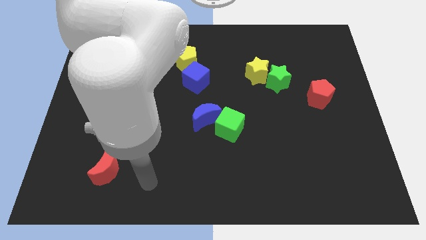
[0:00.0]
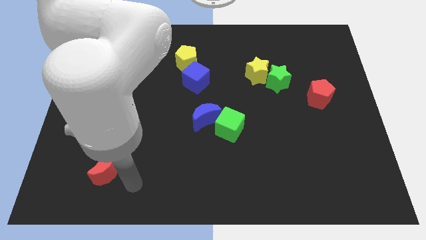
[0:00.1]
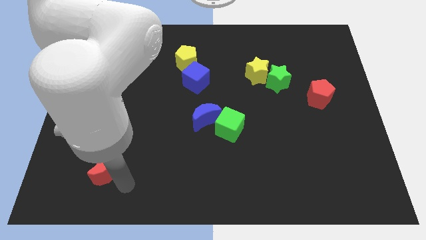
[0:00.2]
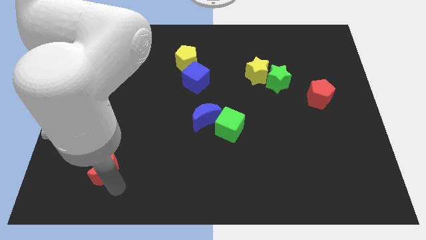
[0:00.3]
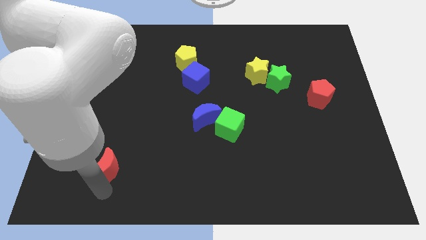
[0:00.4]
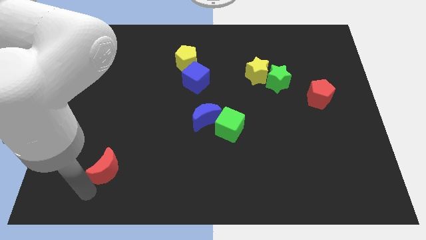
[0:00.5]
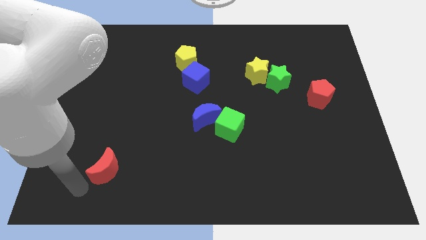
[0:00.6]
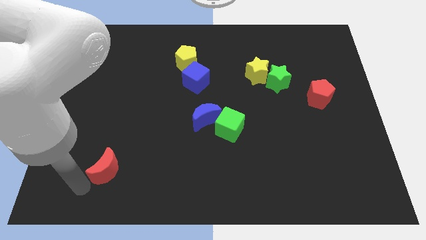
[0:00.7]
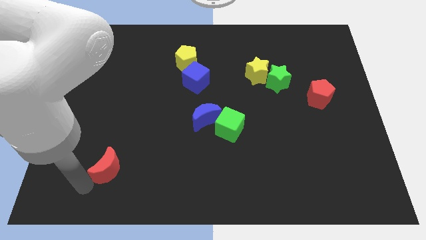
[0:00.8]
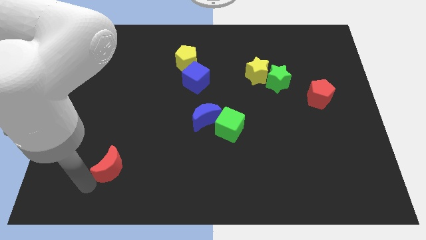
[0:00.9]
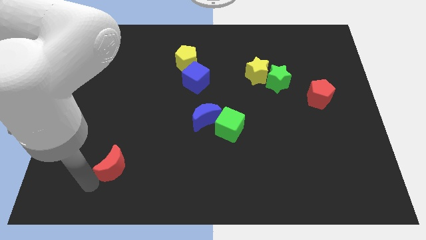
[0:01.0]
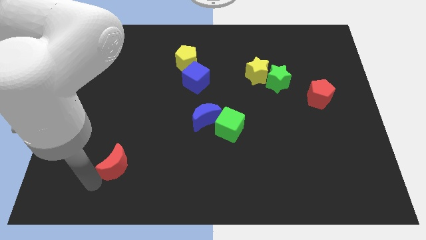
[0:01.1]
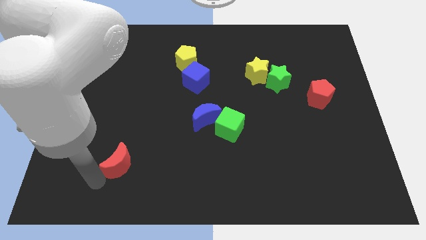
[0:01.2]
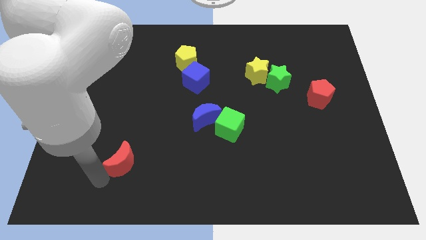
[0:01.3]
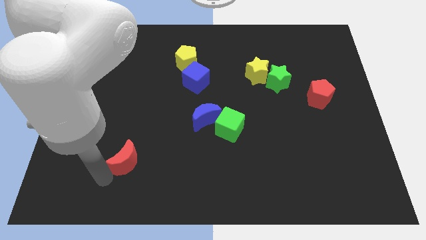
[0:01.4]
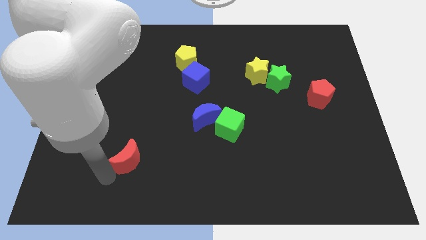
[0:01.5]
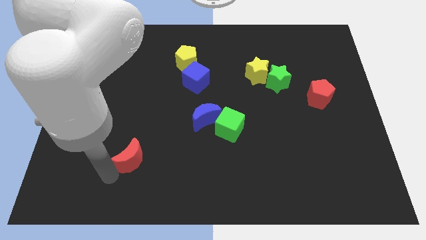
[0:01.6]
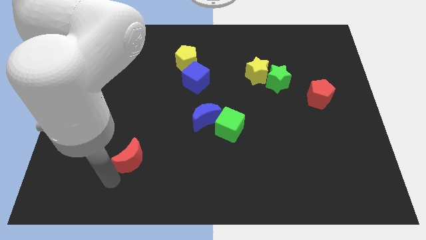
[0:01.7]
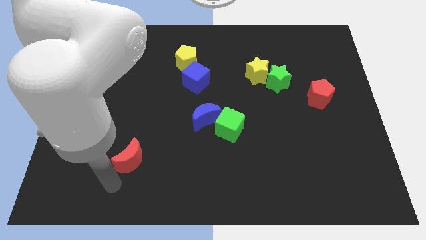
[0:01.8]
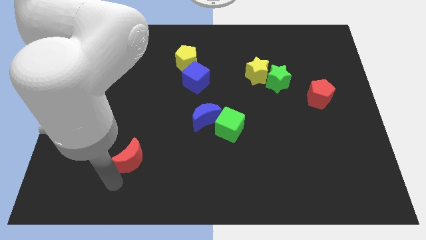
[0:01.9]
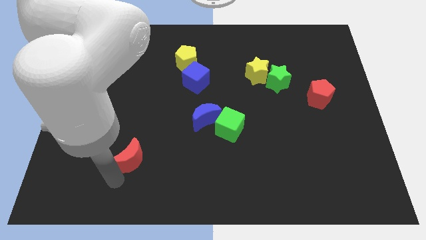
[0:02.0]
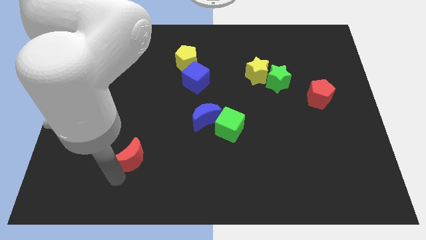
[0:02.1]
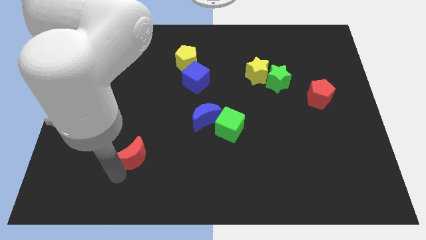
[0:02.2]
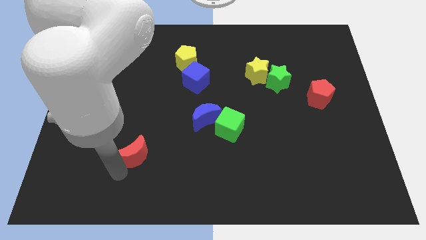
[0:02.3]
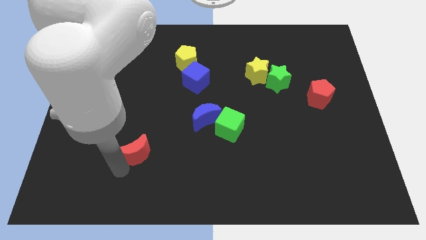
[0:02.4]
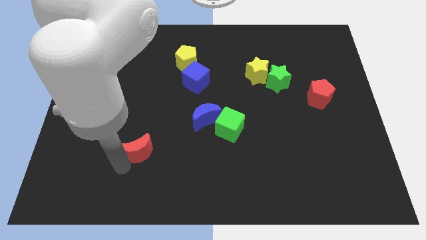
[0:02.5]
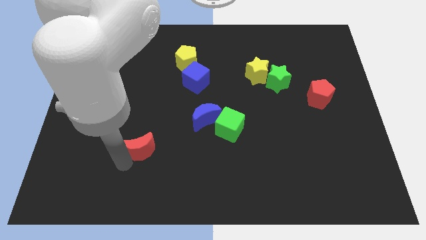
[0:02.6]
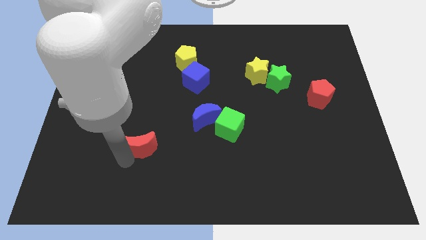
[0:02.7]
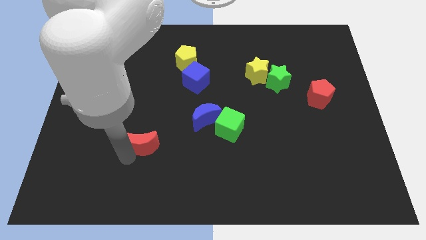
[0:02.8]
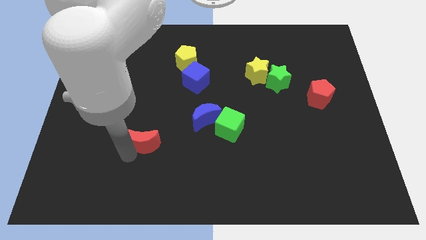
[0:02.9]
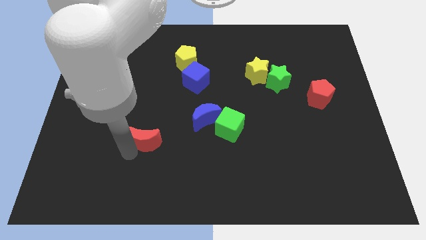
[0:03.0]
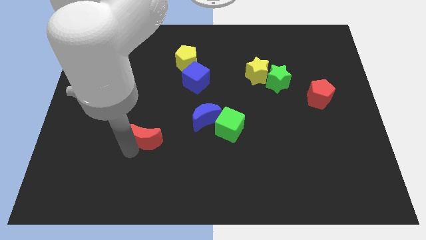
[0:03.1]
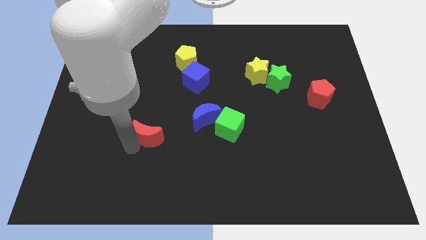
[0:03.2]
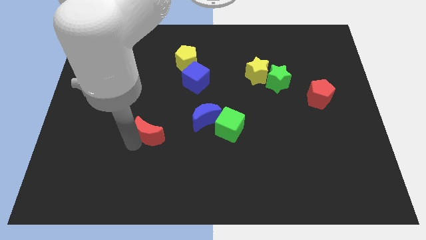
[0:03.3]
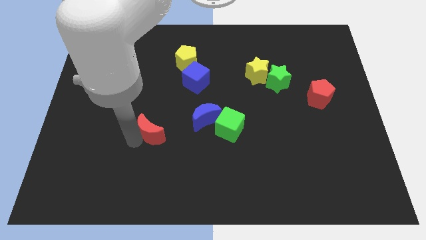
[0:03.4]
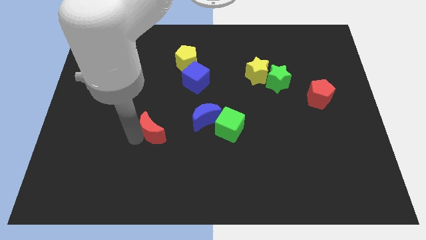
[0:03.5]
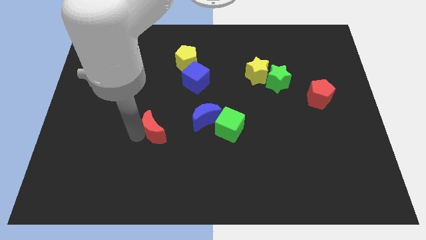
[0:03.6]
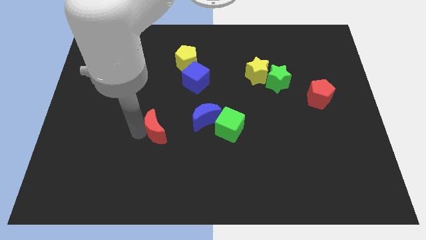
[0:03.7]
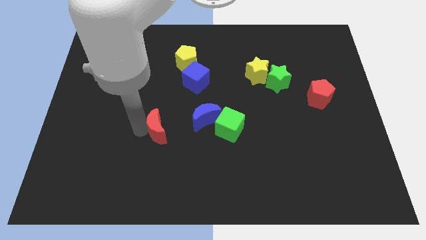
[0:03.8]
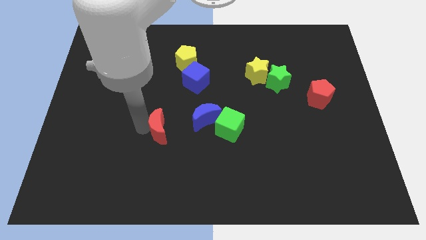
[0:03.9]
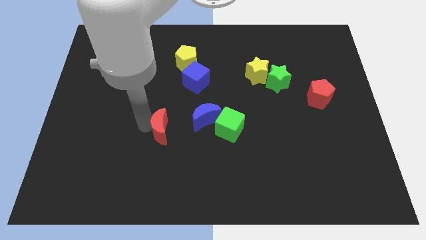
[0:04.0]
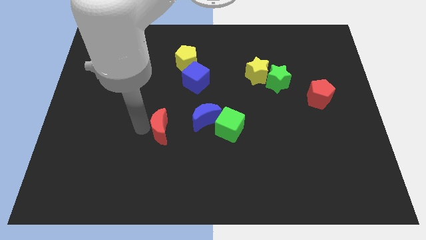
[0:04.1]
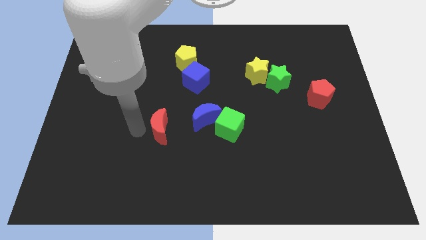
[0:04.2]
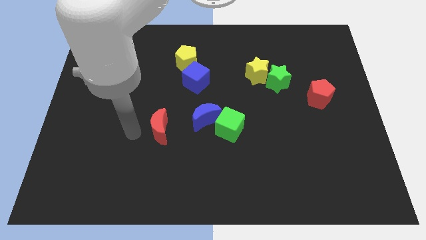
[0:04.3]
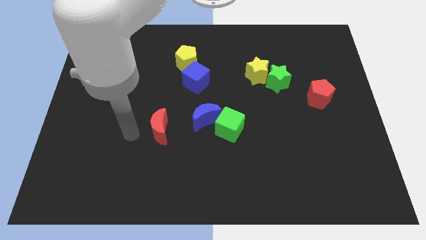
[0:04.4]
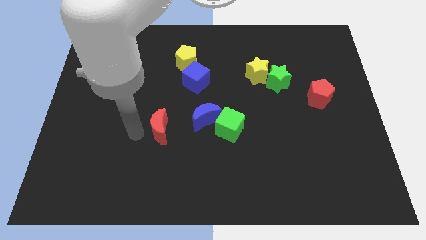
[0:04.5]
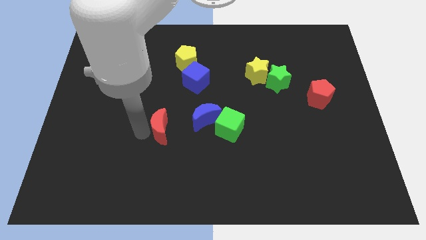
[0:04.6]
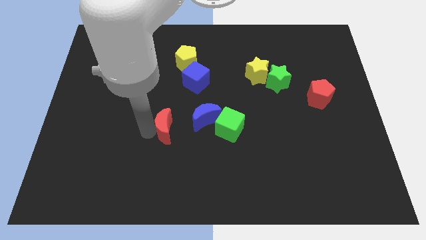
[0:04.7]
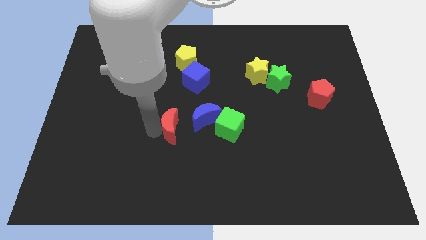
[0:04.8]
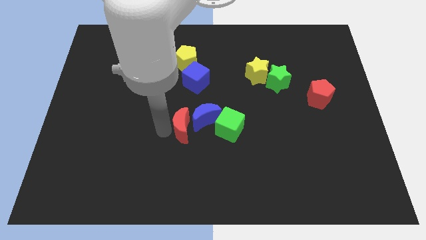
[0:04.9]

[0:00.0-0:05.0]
push the red moon to the blue moon

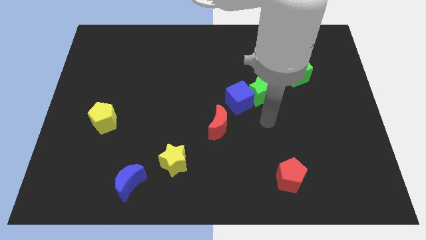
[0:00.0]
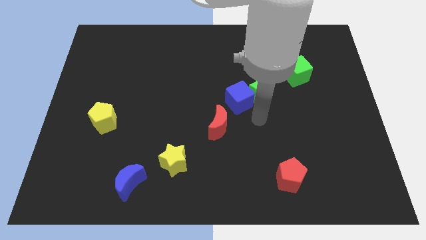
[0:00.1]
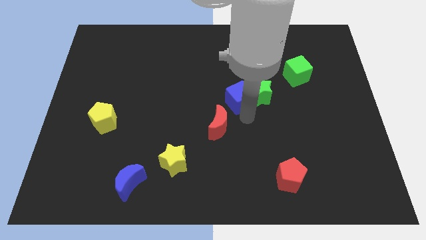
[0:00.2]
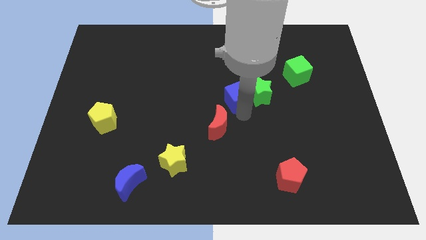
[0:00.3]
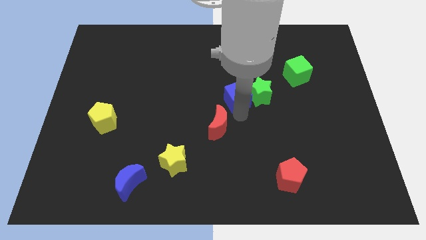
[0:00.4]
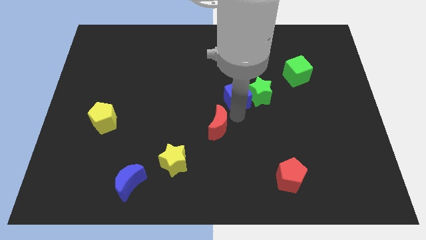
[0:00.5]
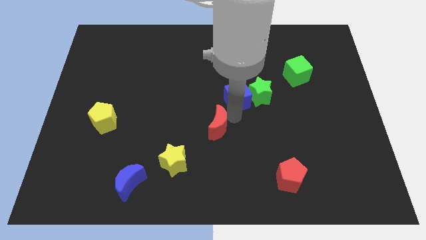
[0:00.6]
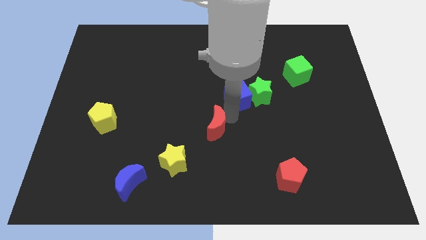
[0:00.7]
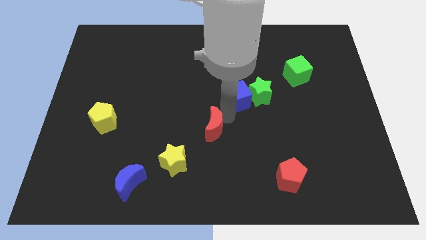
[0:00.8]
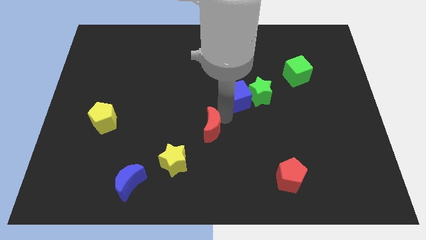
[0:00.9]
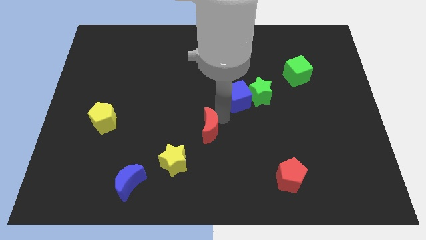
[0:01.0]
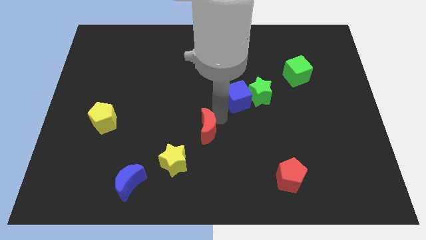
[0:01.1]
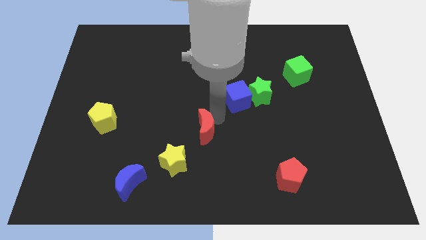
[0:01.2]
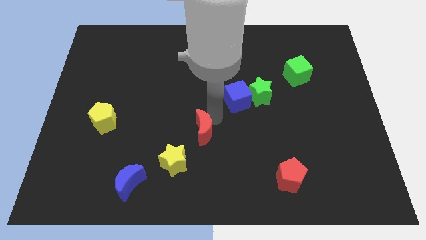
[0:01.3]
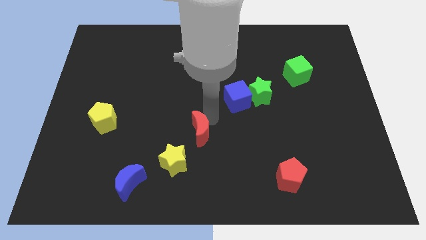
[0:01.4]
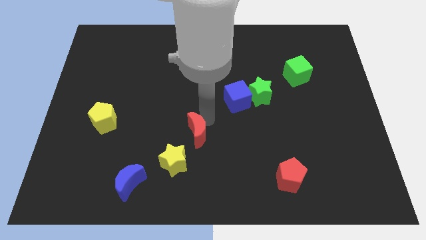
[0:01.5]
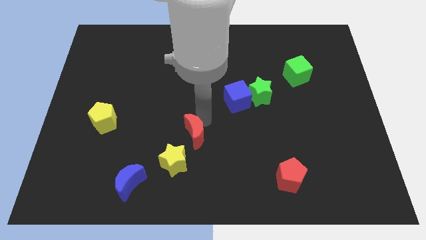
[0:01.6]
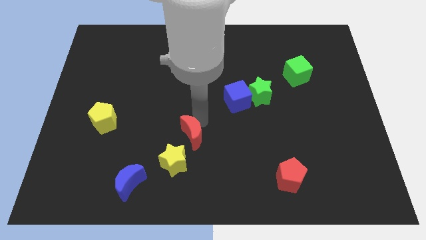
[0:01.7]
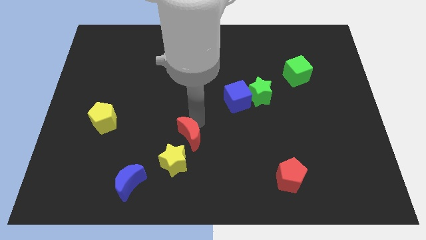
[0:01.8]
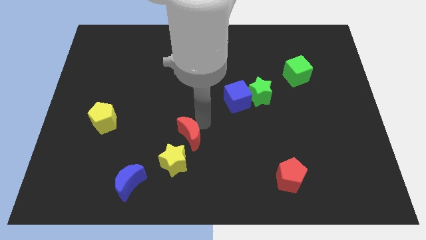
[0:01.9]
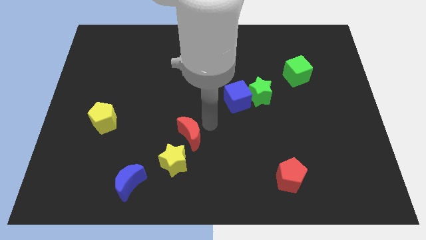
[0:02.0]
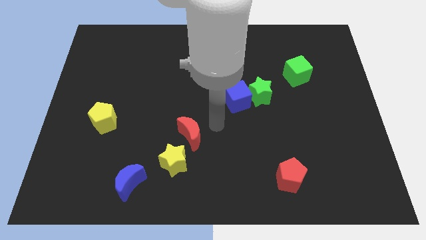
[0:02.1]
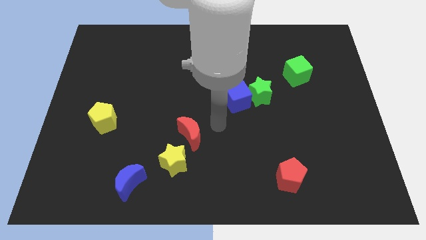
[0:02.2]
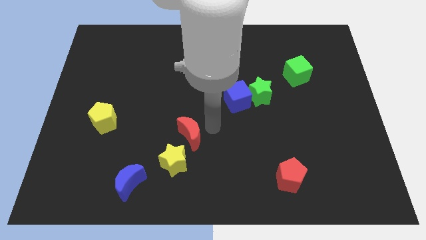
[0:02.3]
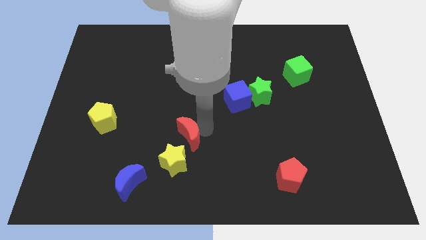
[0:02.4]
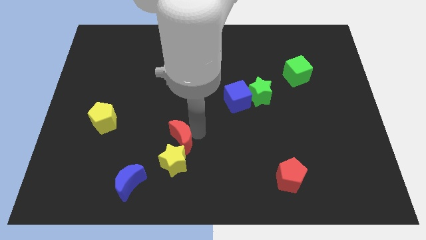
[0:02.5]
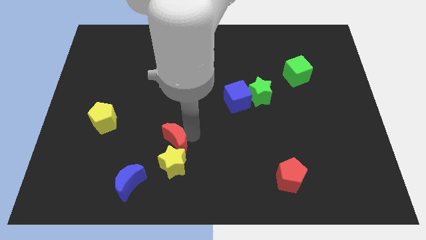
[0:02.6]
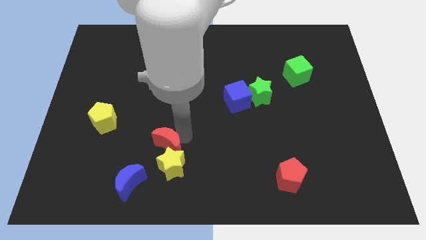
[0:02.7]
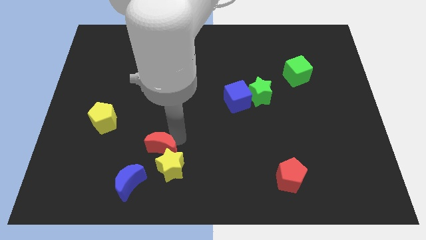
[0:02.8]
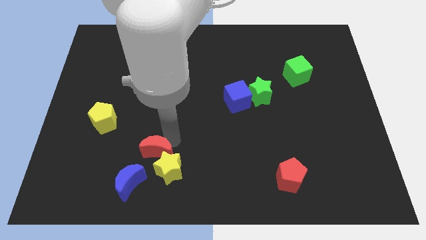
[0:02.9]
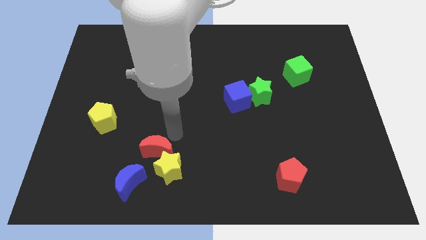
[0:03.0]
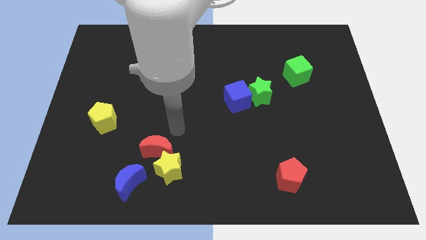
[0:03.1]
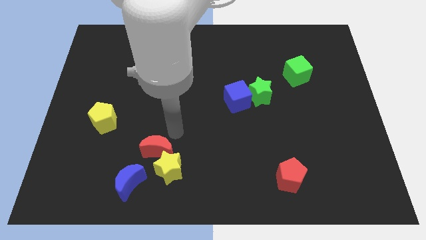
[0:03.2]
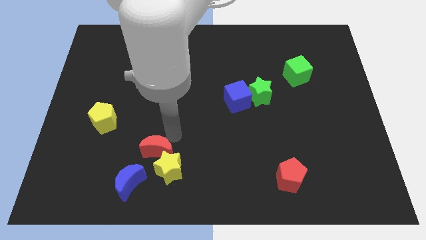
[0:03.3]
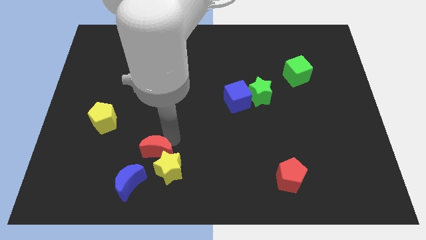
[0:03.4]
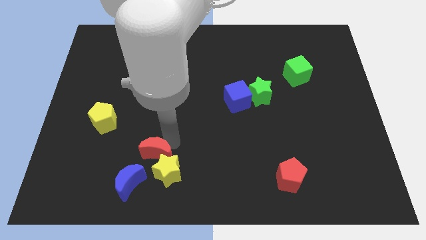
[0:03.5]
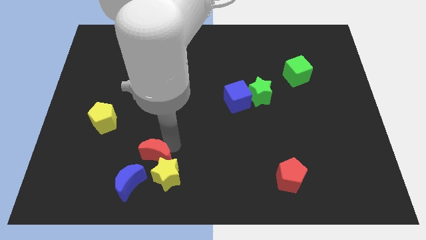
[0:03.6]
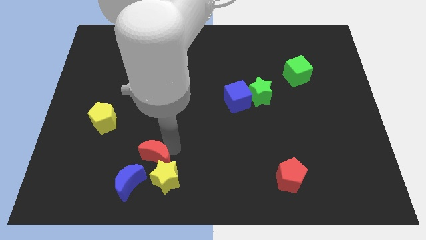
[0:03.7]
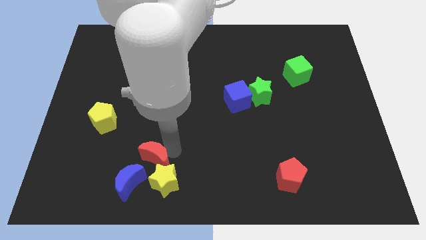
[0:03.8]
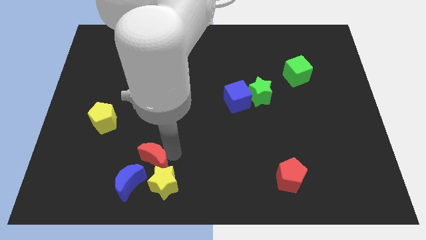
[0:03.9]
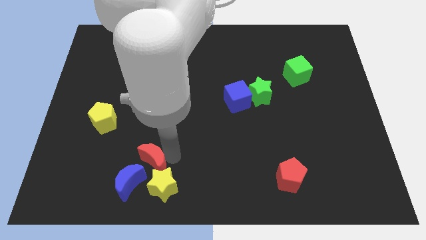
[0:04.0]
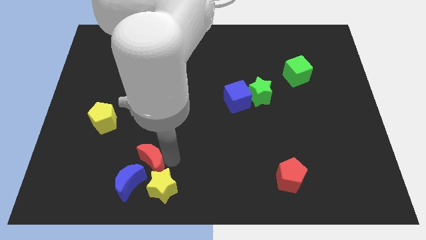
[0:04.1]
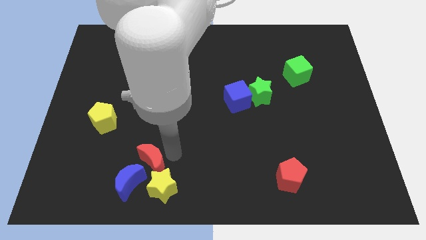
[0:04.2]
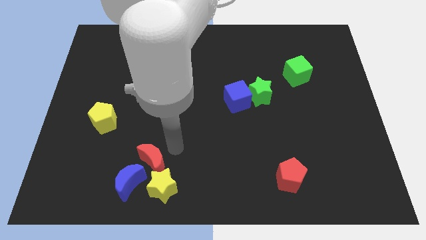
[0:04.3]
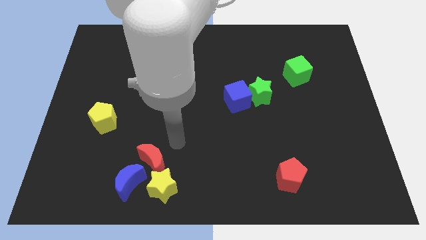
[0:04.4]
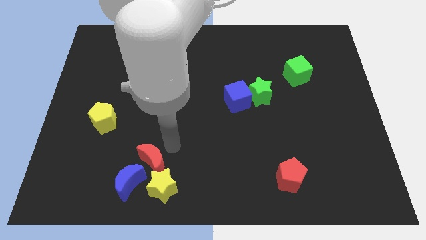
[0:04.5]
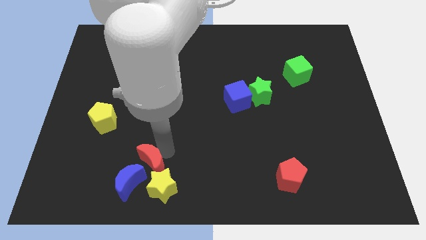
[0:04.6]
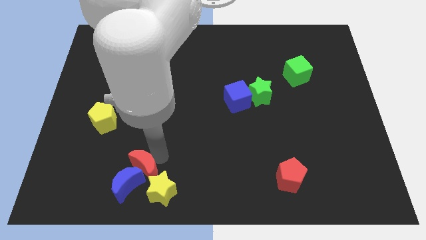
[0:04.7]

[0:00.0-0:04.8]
slide the red moon to the blue moon
